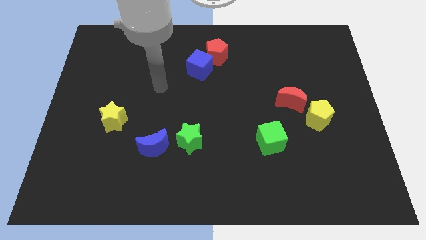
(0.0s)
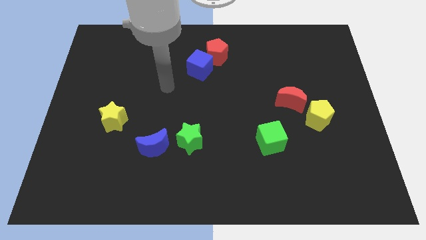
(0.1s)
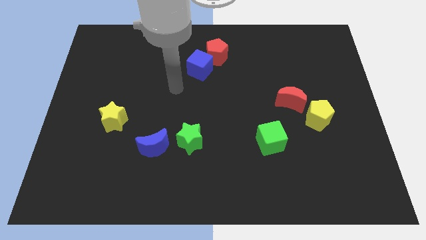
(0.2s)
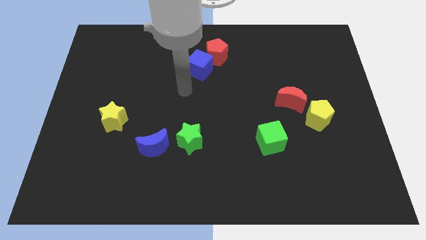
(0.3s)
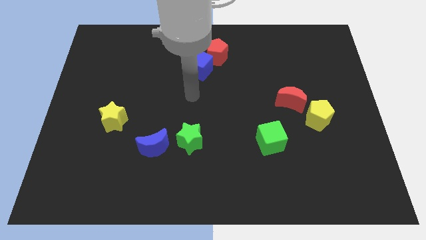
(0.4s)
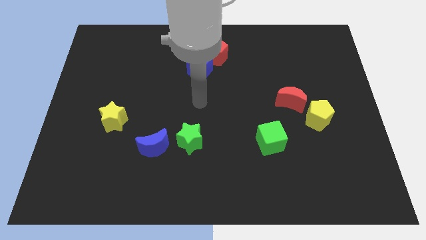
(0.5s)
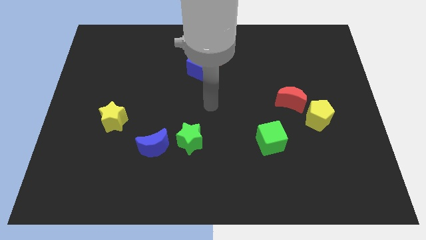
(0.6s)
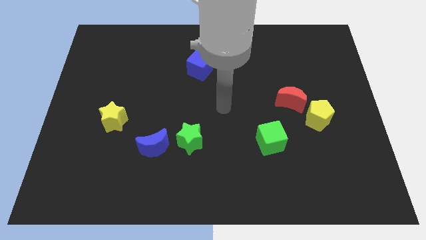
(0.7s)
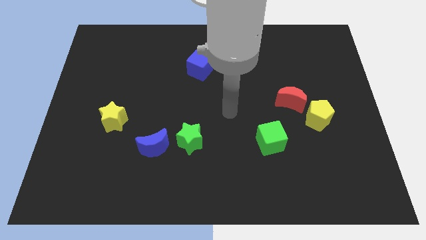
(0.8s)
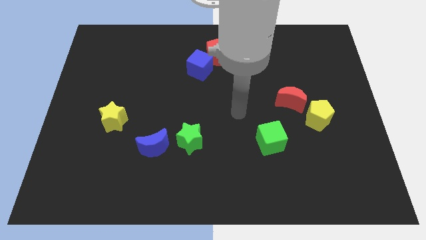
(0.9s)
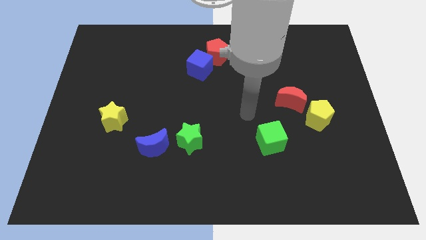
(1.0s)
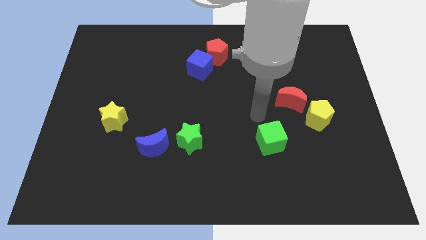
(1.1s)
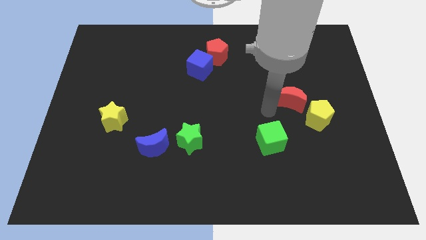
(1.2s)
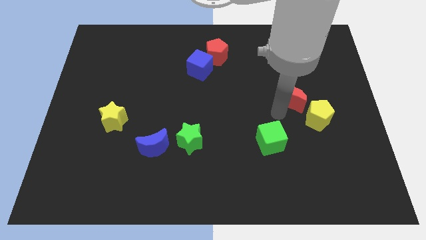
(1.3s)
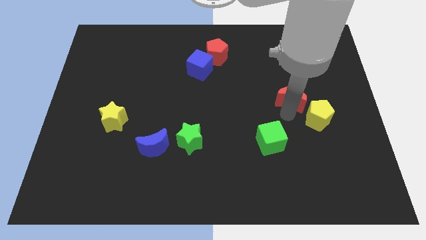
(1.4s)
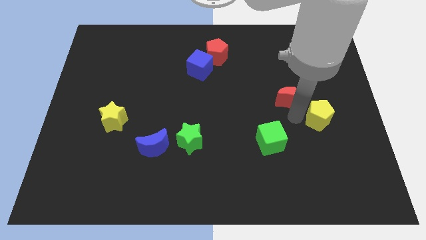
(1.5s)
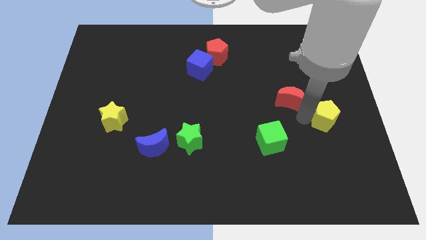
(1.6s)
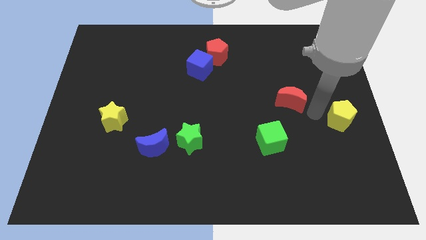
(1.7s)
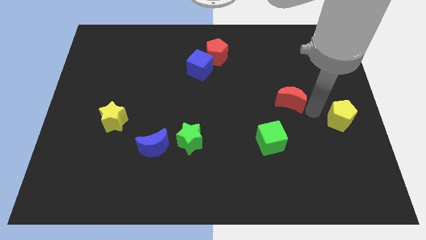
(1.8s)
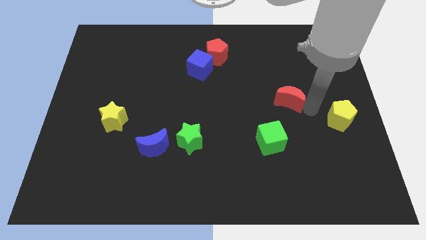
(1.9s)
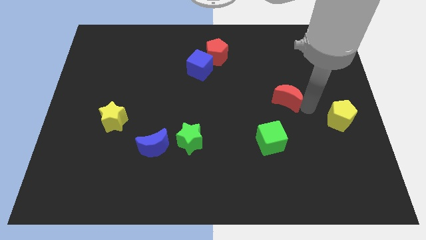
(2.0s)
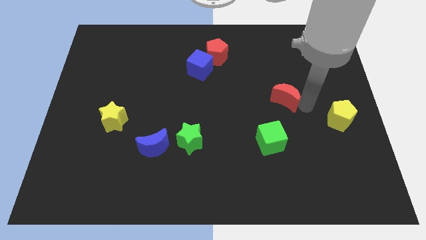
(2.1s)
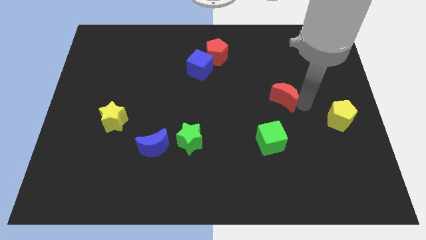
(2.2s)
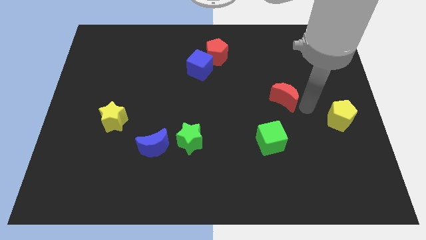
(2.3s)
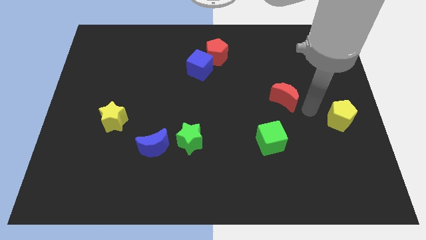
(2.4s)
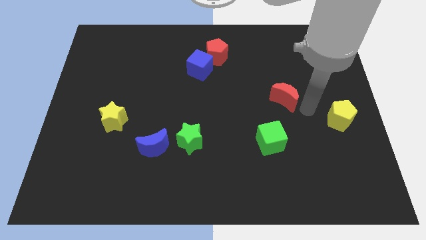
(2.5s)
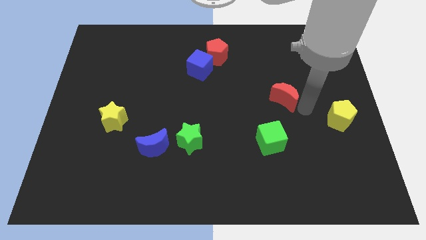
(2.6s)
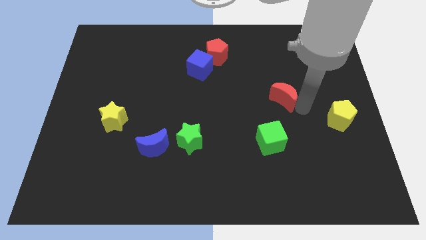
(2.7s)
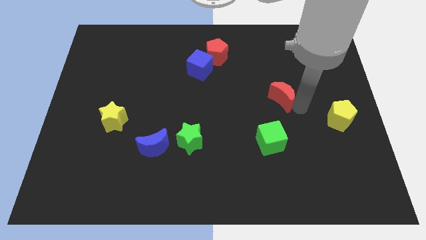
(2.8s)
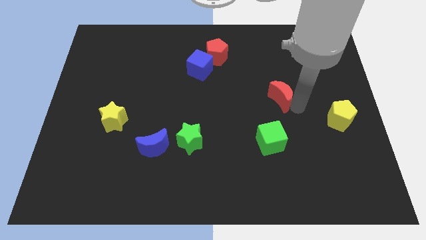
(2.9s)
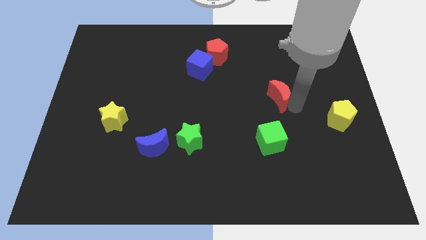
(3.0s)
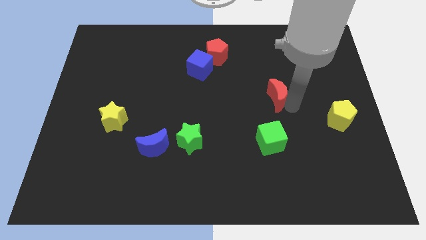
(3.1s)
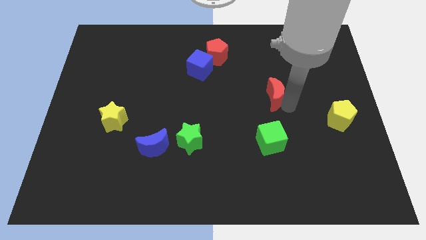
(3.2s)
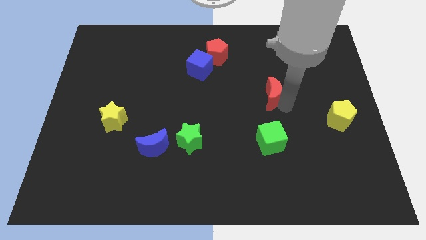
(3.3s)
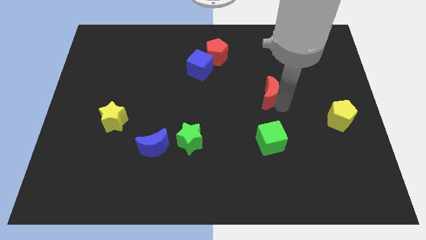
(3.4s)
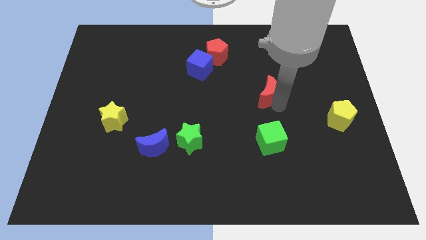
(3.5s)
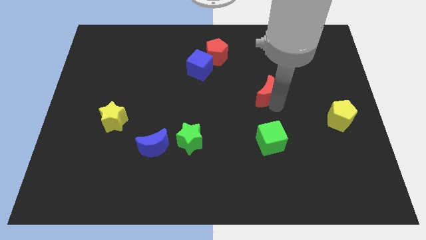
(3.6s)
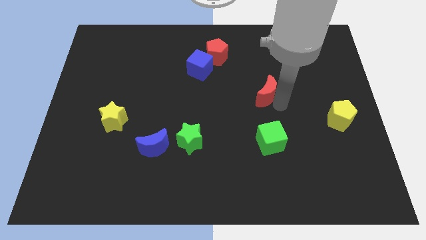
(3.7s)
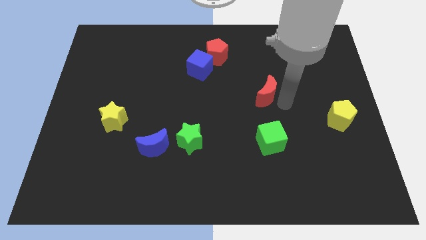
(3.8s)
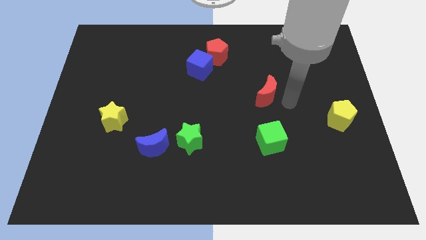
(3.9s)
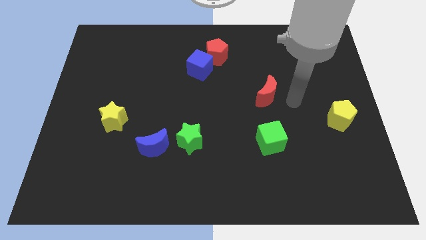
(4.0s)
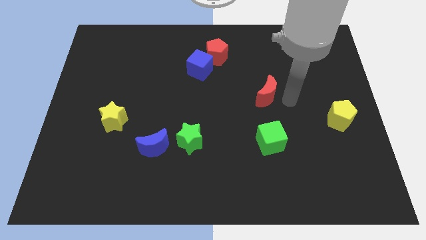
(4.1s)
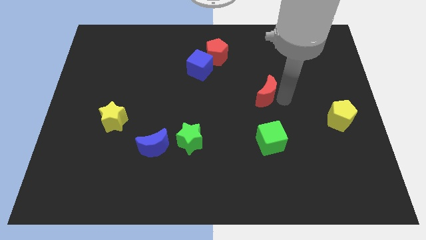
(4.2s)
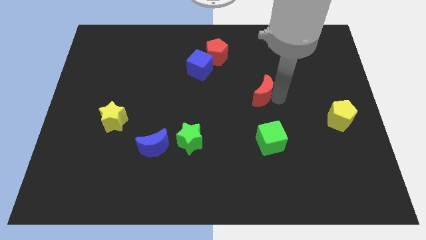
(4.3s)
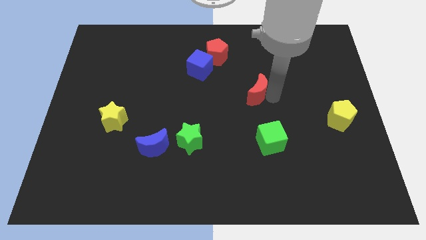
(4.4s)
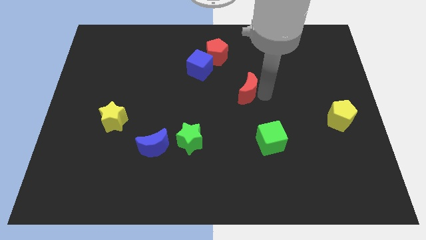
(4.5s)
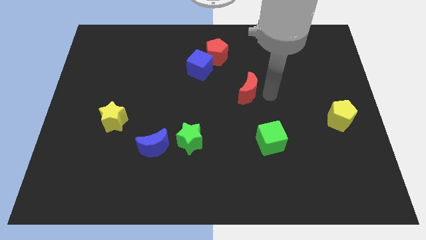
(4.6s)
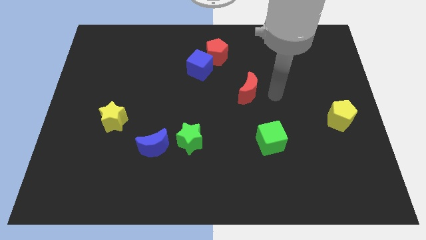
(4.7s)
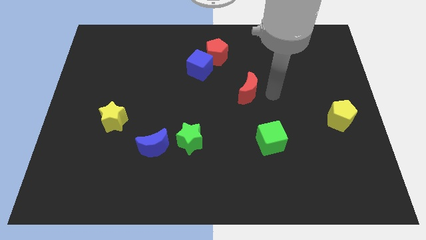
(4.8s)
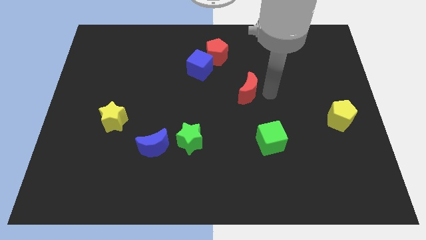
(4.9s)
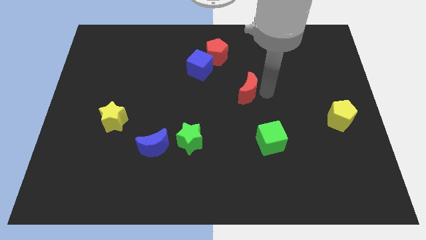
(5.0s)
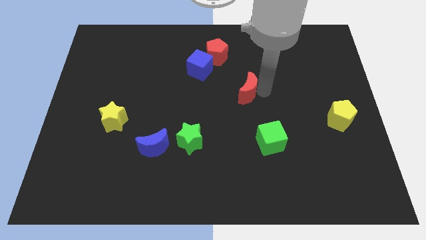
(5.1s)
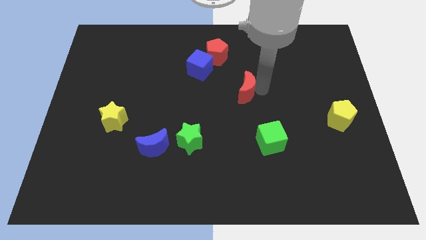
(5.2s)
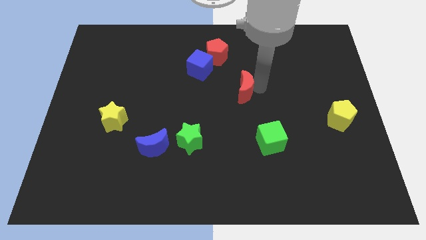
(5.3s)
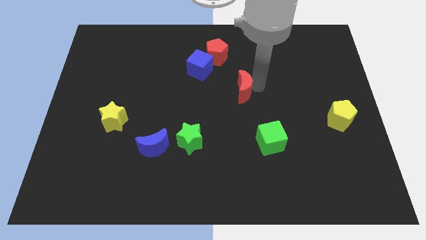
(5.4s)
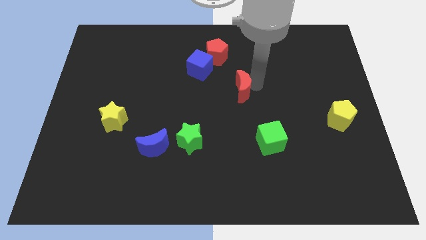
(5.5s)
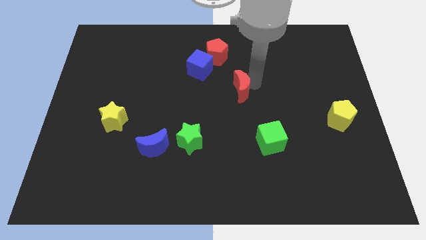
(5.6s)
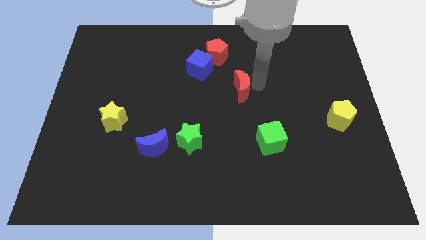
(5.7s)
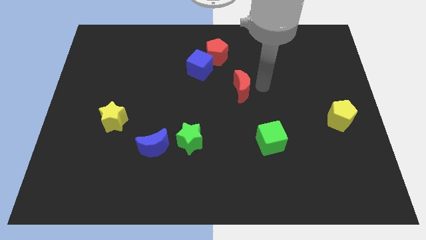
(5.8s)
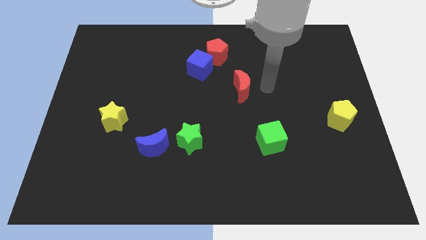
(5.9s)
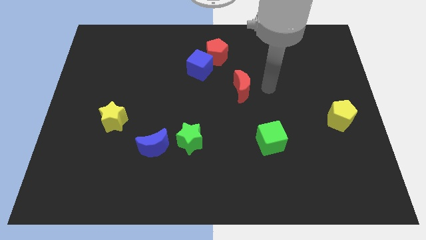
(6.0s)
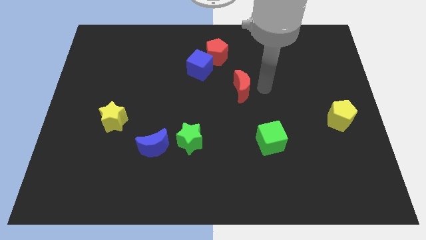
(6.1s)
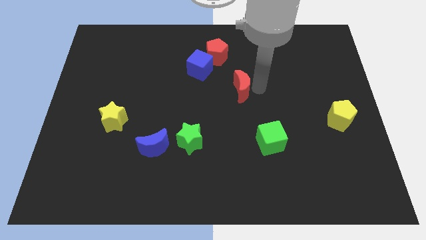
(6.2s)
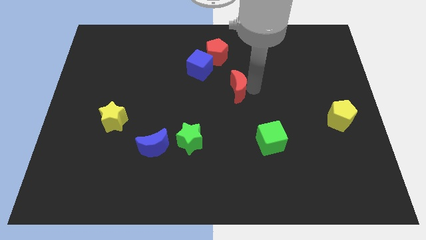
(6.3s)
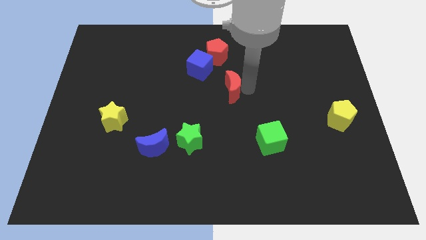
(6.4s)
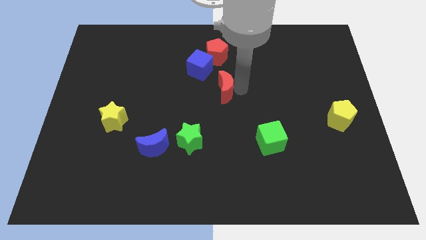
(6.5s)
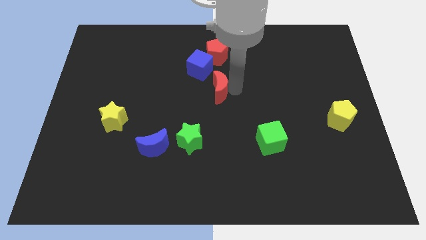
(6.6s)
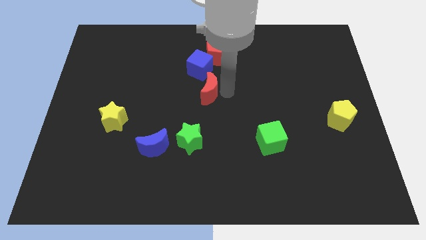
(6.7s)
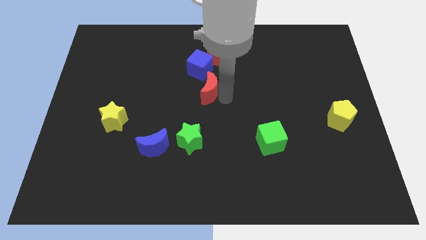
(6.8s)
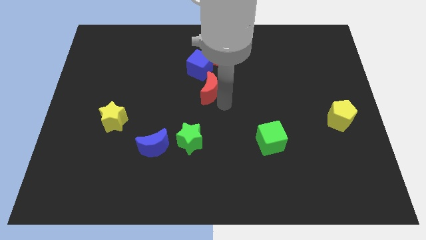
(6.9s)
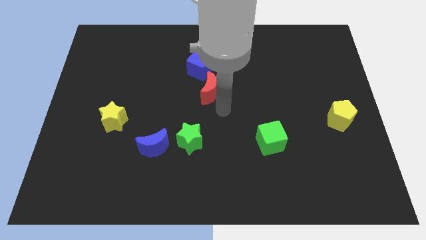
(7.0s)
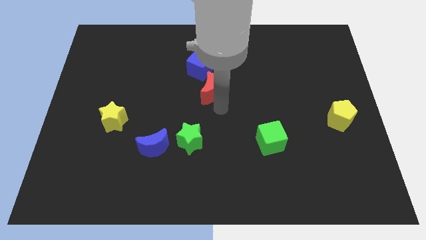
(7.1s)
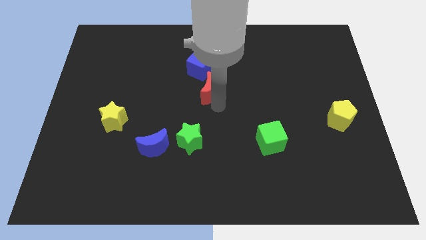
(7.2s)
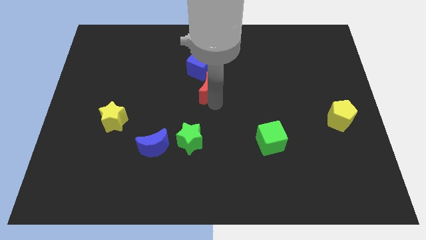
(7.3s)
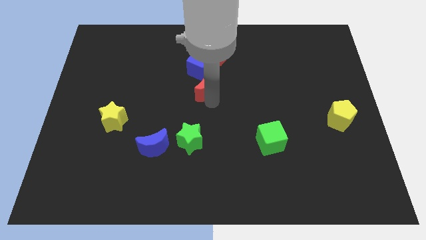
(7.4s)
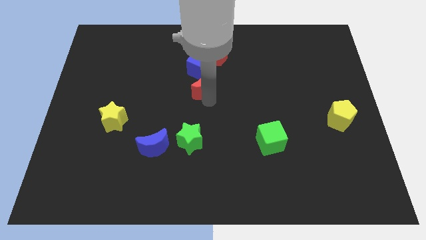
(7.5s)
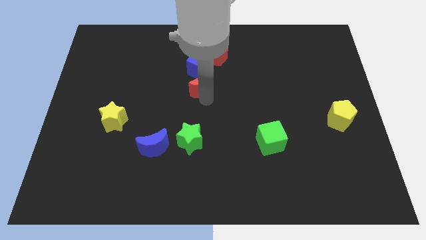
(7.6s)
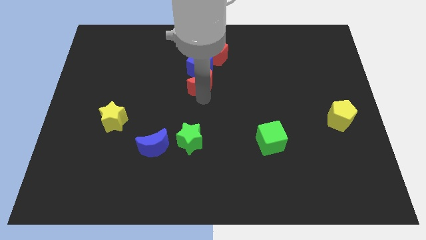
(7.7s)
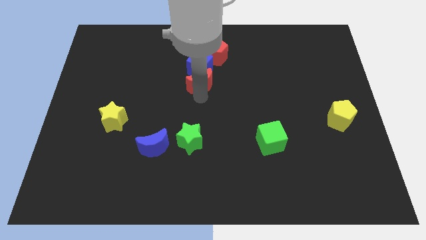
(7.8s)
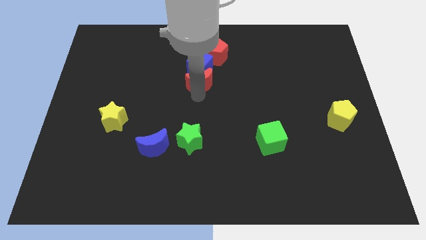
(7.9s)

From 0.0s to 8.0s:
put the red moon to the bottom left side of the red pentagon
